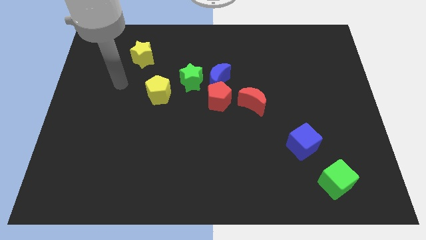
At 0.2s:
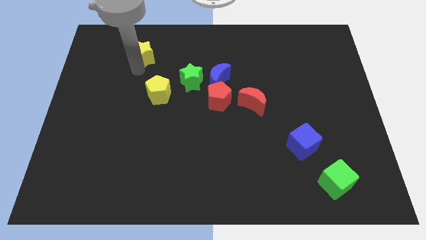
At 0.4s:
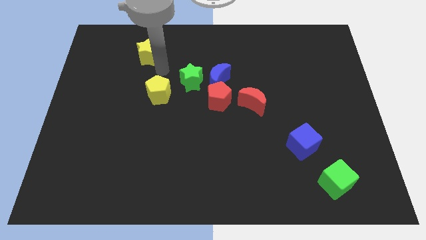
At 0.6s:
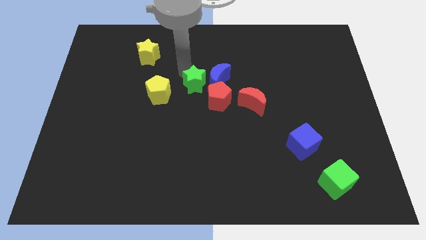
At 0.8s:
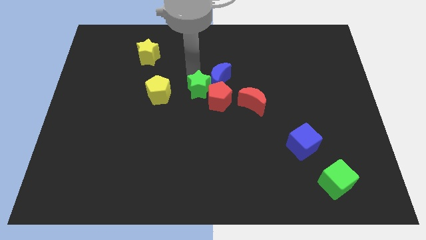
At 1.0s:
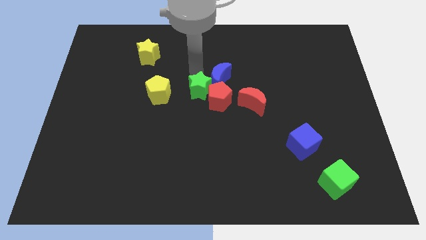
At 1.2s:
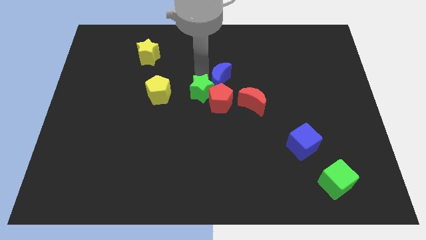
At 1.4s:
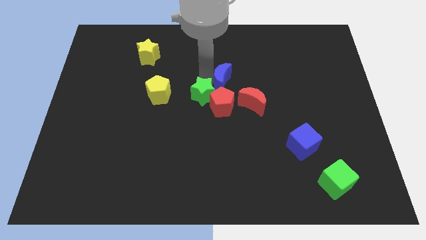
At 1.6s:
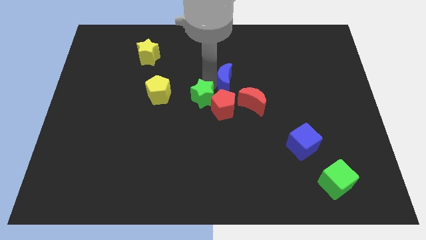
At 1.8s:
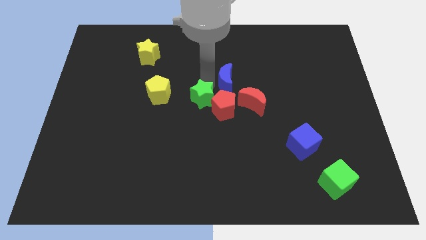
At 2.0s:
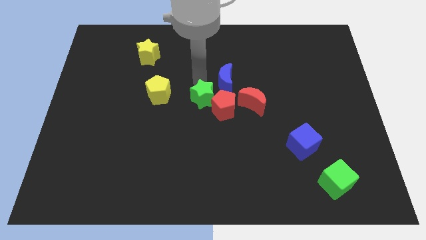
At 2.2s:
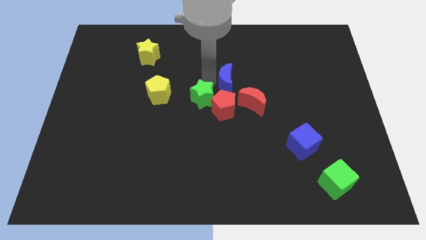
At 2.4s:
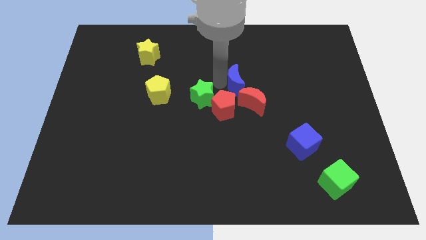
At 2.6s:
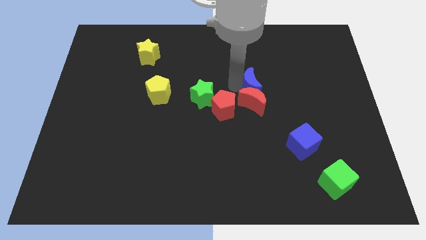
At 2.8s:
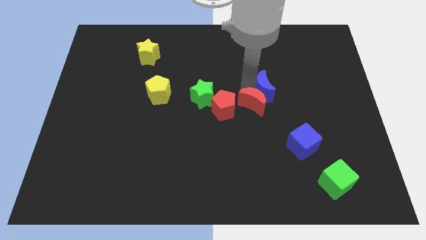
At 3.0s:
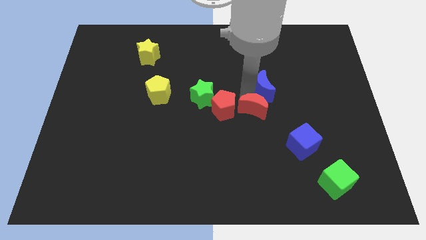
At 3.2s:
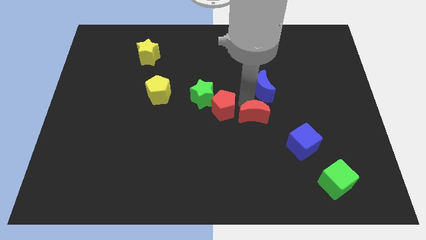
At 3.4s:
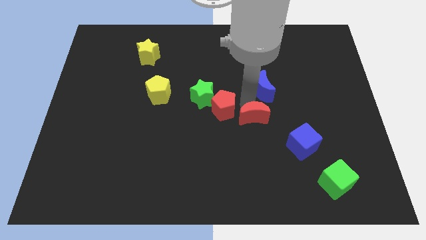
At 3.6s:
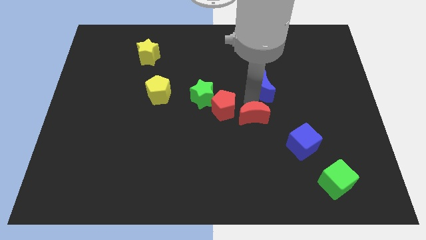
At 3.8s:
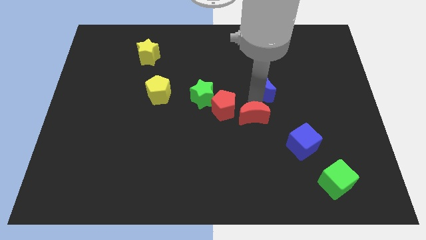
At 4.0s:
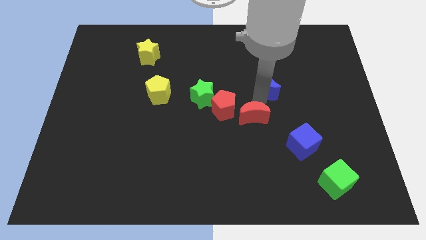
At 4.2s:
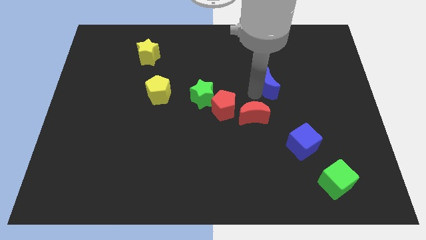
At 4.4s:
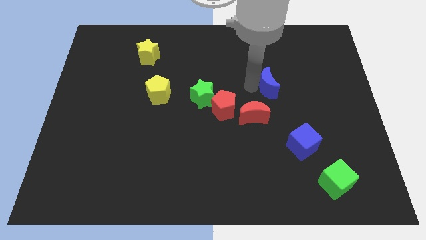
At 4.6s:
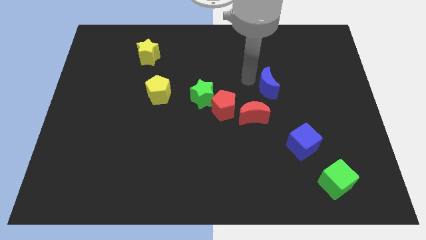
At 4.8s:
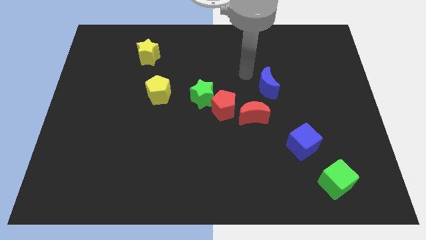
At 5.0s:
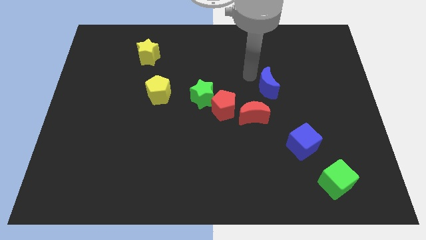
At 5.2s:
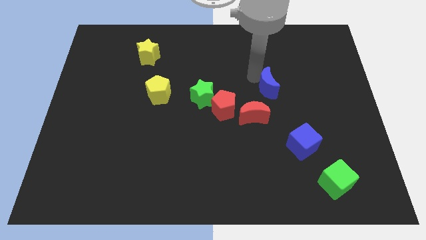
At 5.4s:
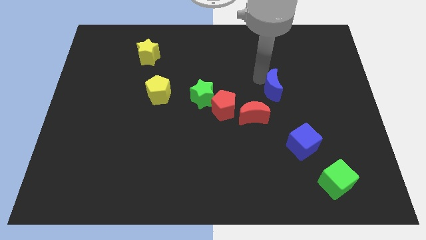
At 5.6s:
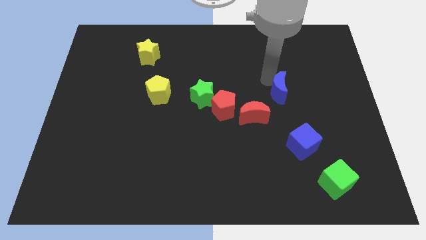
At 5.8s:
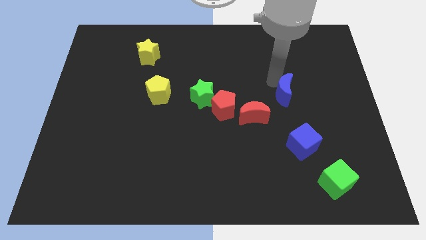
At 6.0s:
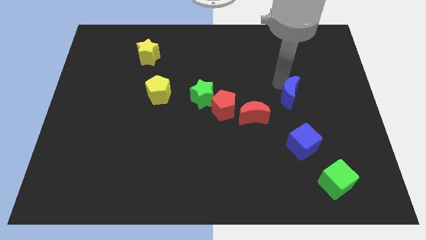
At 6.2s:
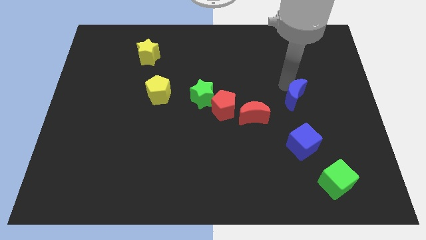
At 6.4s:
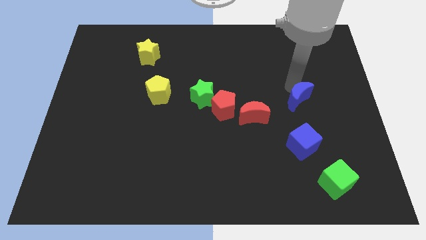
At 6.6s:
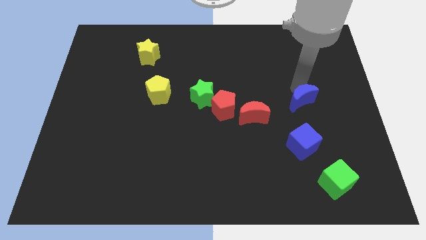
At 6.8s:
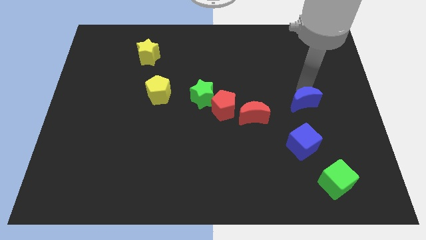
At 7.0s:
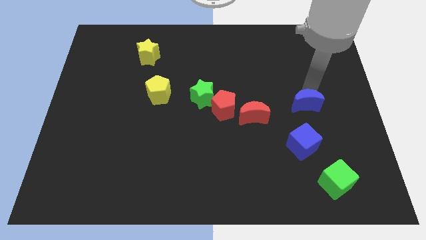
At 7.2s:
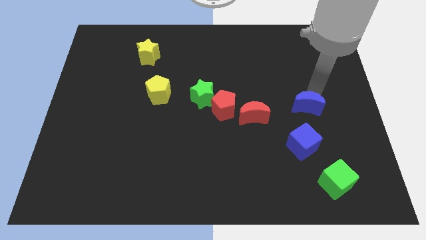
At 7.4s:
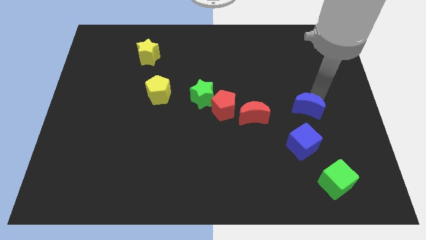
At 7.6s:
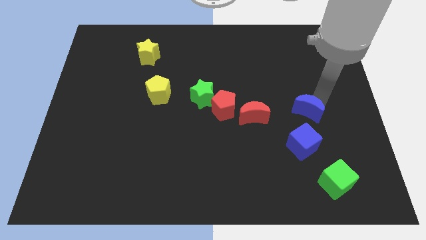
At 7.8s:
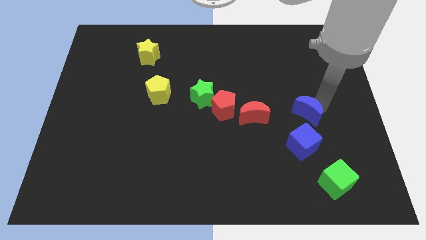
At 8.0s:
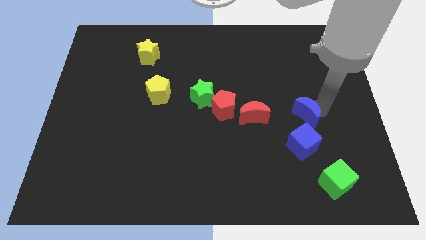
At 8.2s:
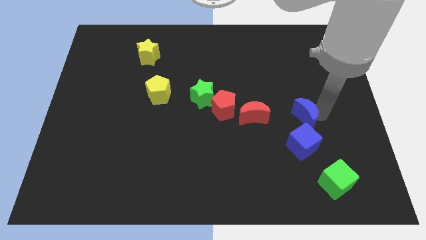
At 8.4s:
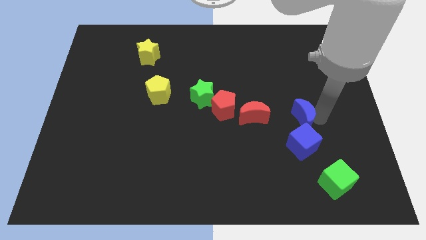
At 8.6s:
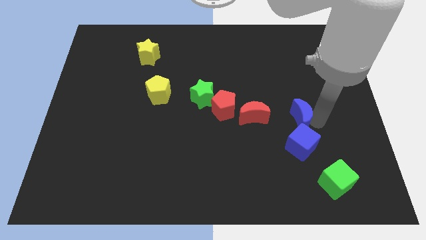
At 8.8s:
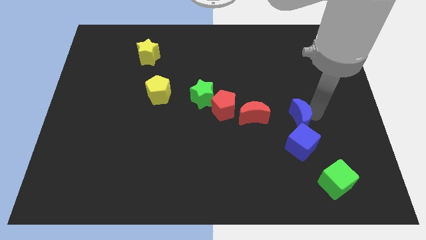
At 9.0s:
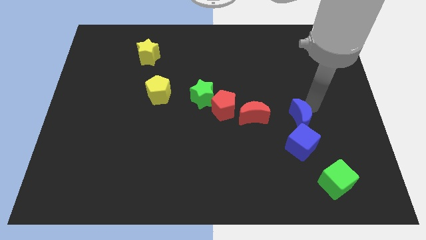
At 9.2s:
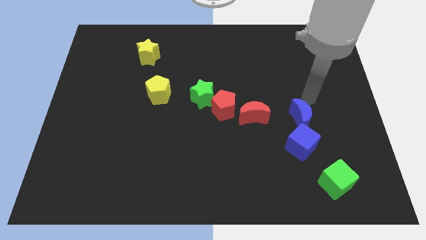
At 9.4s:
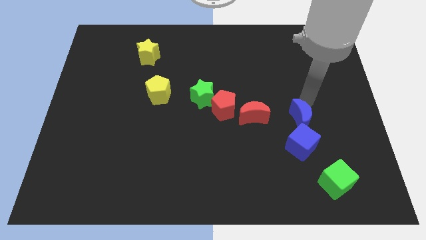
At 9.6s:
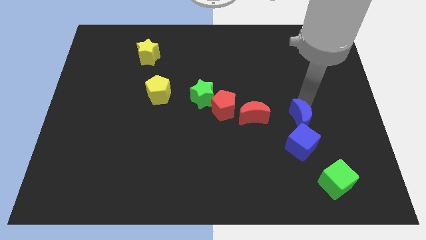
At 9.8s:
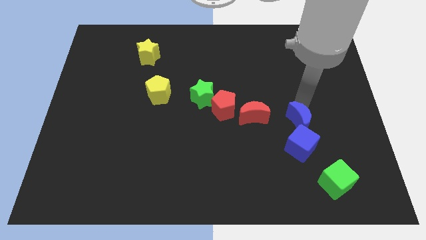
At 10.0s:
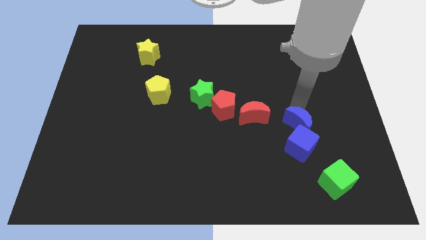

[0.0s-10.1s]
move the blue moon close to the blue cube

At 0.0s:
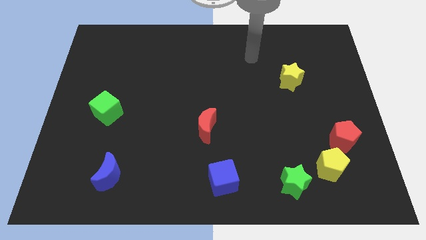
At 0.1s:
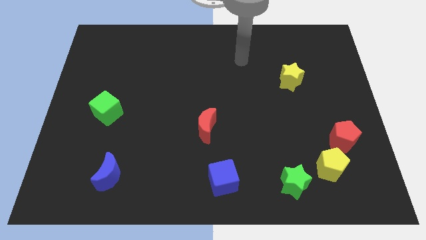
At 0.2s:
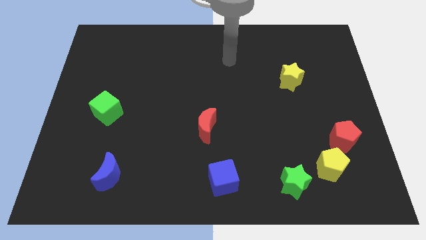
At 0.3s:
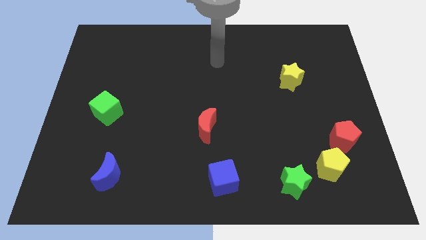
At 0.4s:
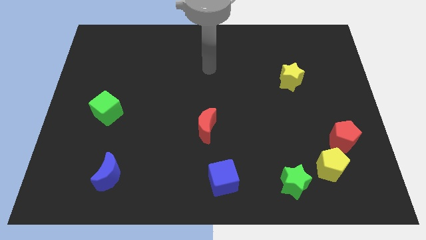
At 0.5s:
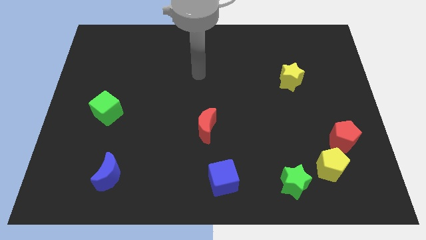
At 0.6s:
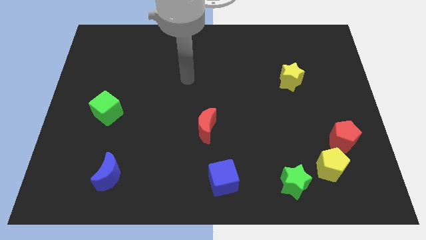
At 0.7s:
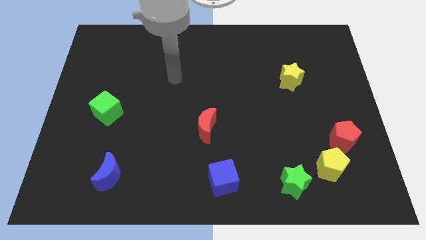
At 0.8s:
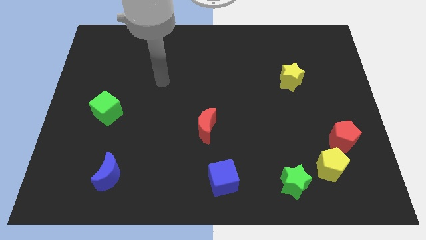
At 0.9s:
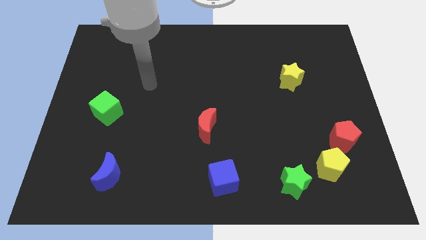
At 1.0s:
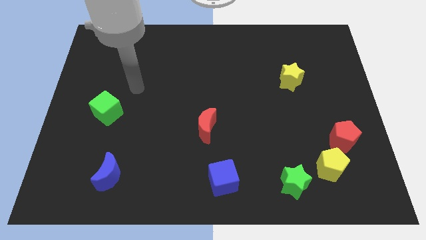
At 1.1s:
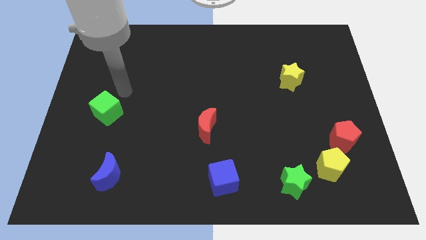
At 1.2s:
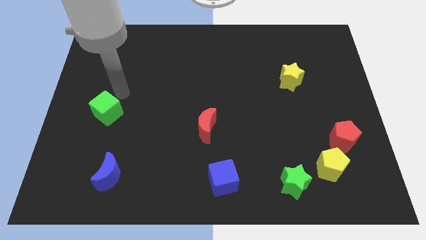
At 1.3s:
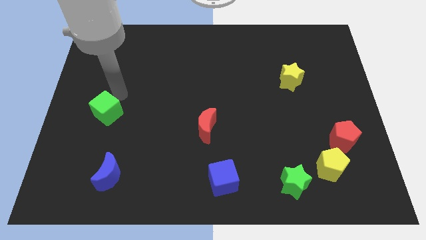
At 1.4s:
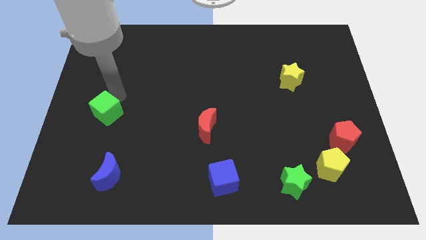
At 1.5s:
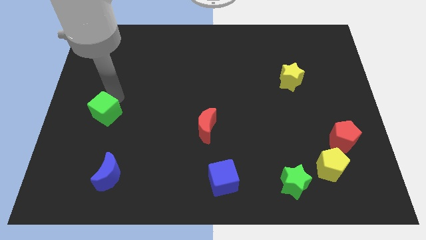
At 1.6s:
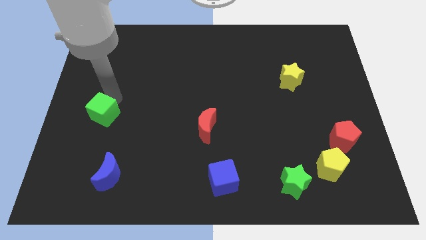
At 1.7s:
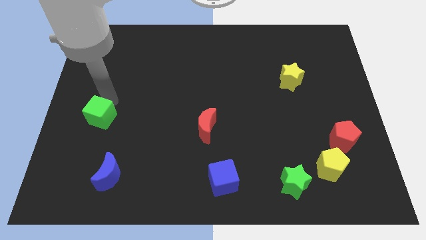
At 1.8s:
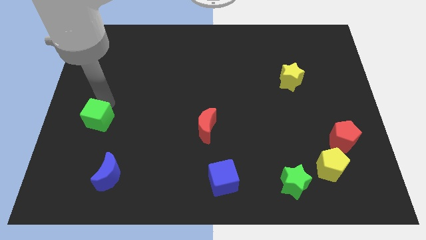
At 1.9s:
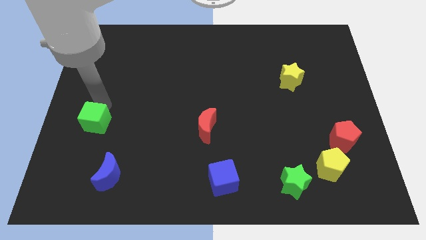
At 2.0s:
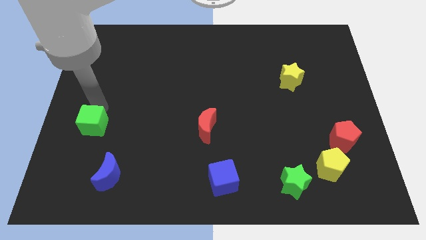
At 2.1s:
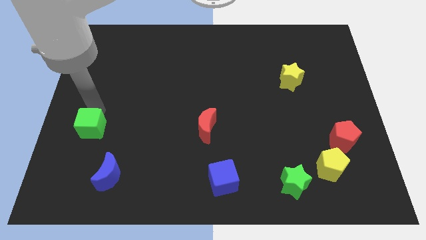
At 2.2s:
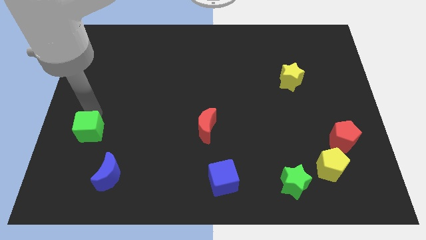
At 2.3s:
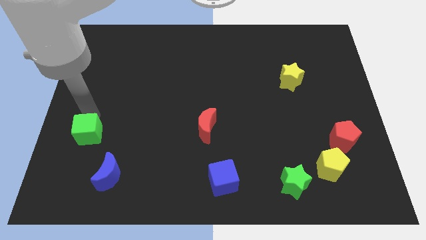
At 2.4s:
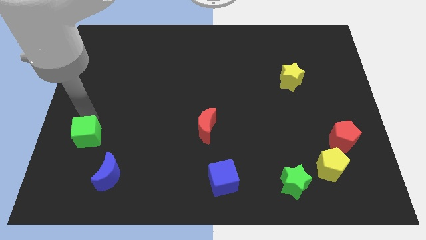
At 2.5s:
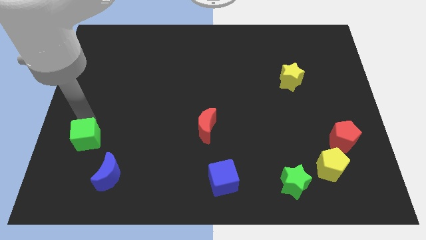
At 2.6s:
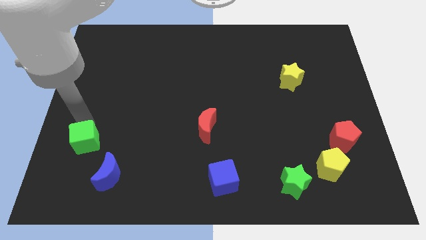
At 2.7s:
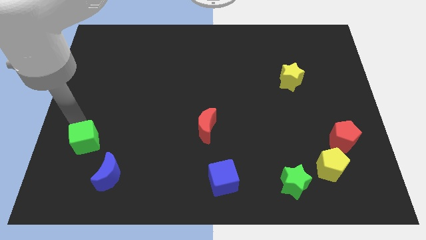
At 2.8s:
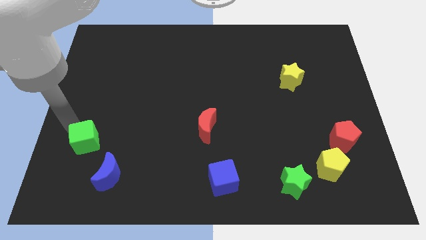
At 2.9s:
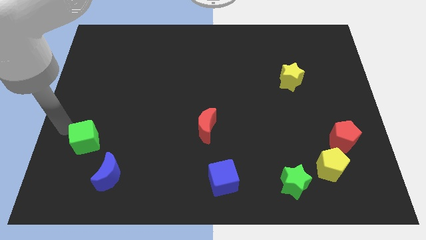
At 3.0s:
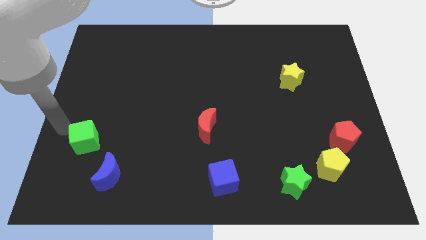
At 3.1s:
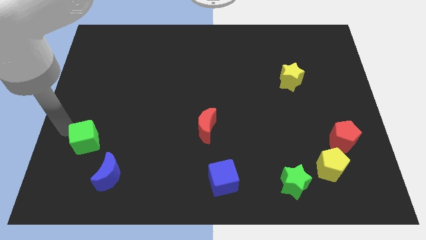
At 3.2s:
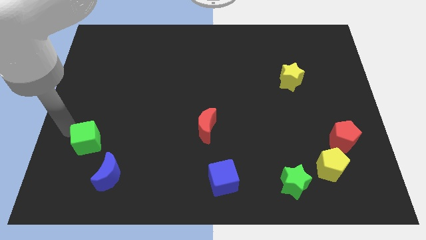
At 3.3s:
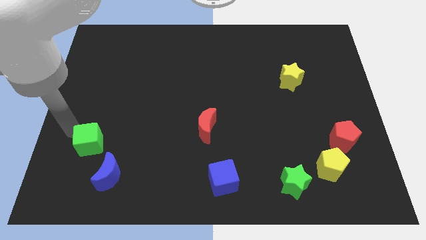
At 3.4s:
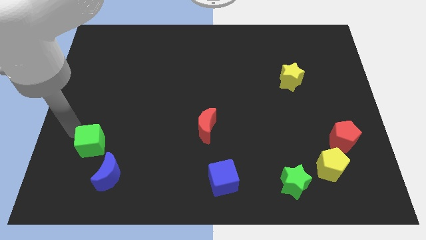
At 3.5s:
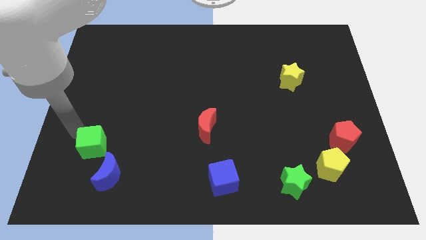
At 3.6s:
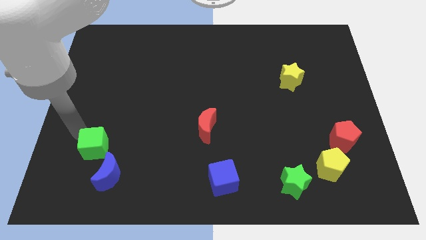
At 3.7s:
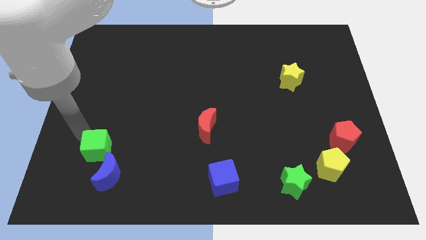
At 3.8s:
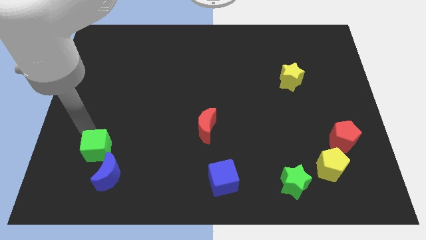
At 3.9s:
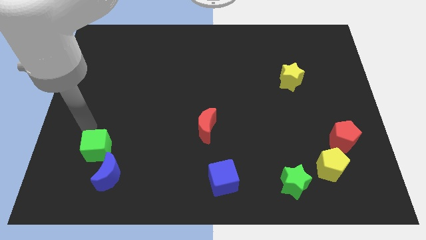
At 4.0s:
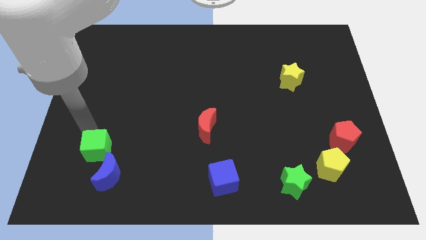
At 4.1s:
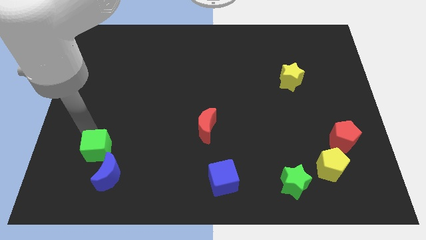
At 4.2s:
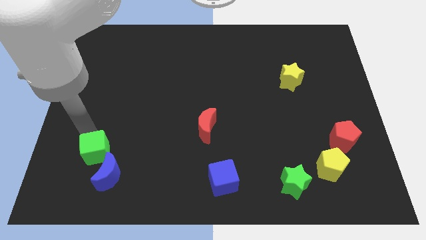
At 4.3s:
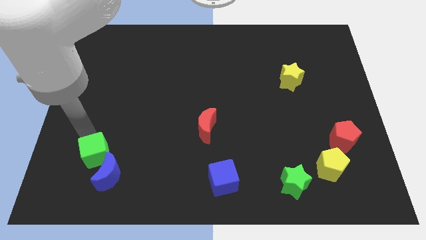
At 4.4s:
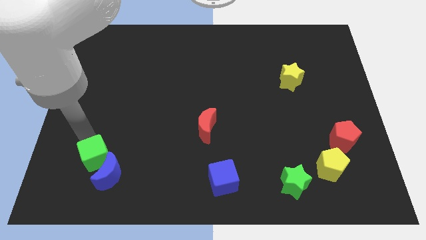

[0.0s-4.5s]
slide the green cube to the blue moon
